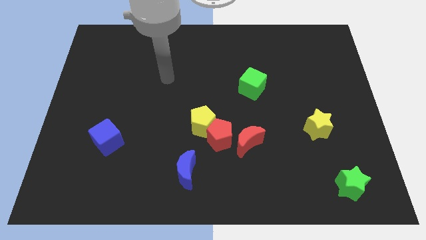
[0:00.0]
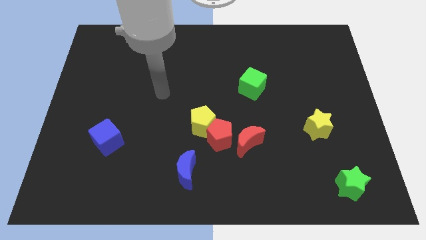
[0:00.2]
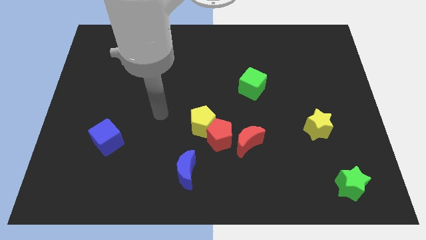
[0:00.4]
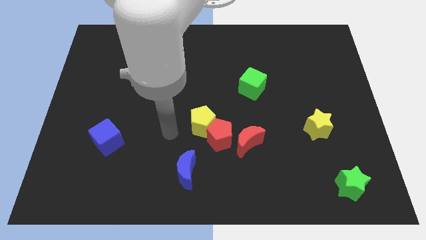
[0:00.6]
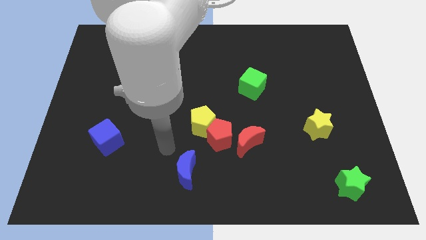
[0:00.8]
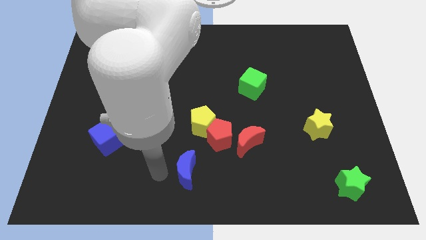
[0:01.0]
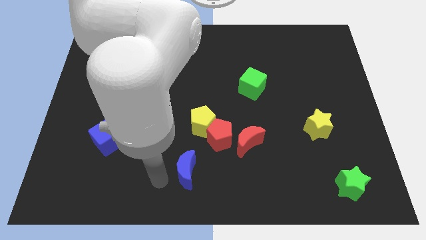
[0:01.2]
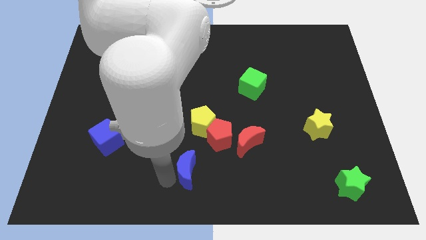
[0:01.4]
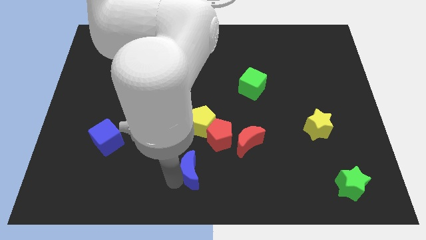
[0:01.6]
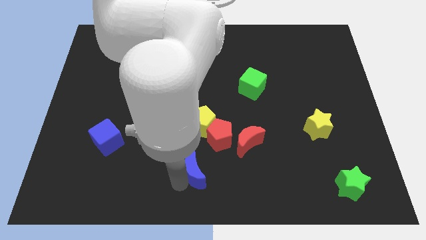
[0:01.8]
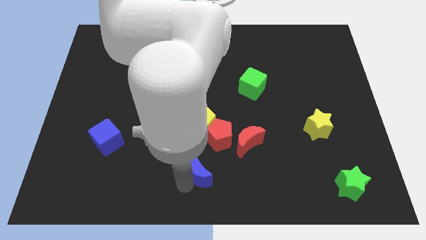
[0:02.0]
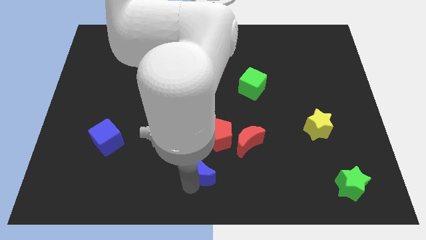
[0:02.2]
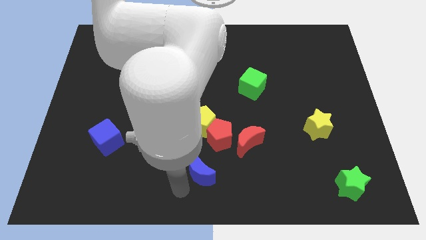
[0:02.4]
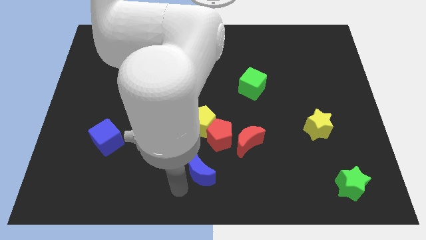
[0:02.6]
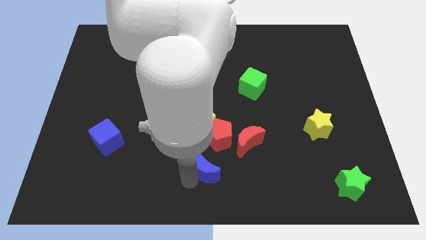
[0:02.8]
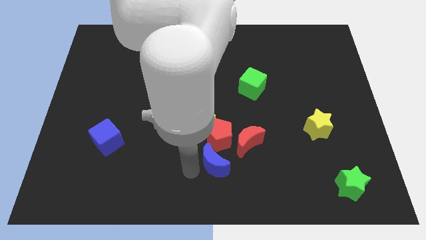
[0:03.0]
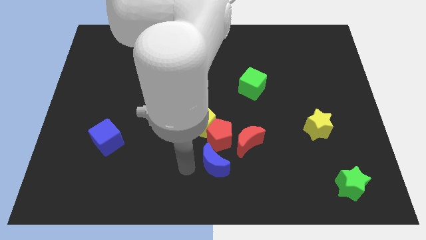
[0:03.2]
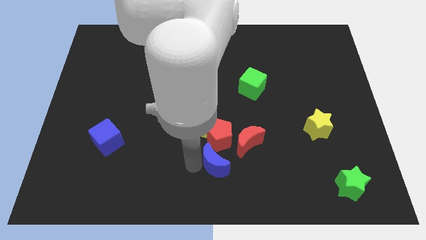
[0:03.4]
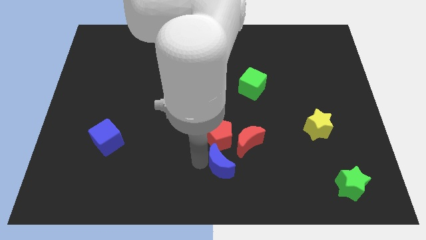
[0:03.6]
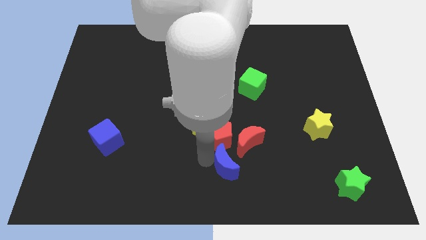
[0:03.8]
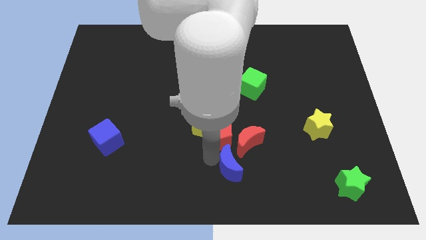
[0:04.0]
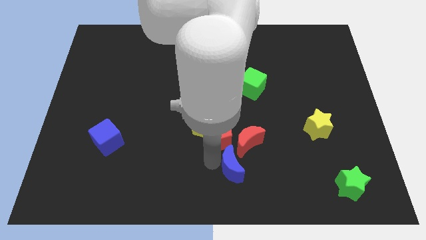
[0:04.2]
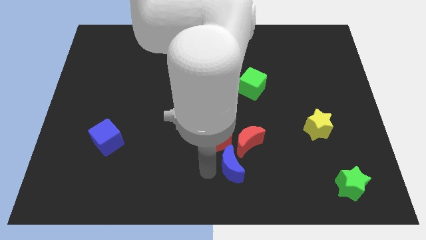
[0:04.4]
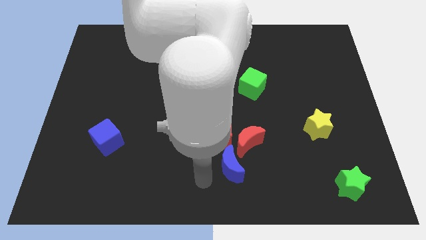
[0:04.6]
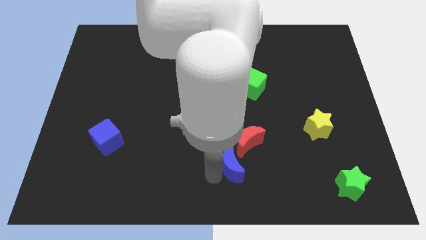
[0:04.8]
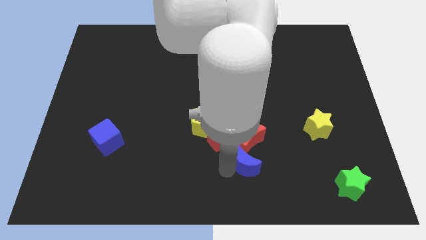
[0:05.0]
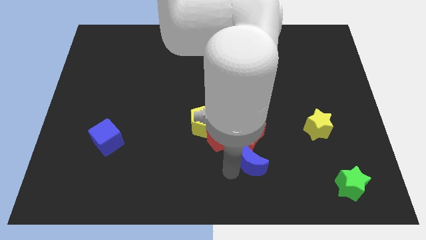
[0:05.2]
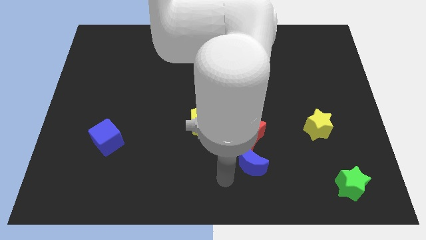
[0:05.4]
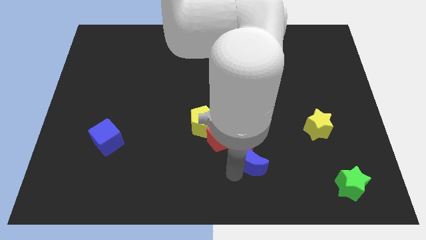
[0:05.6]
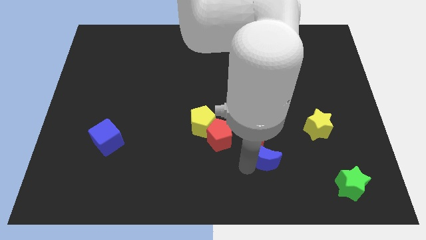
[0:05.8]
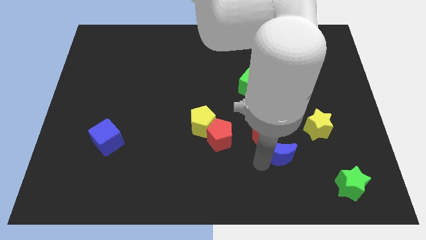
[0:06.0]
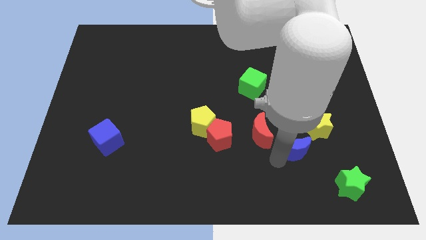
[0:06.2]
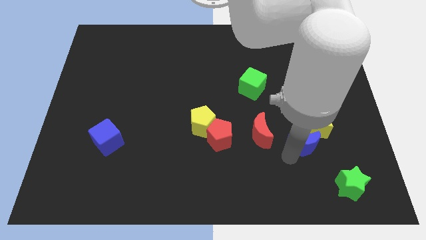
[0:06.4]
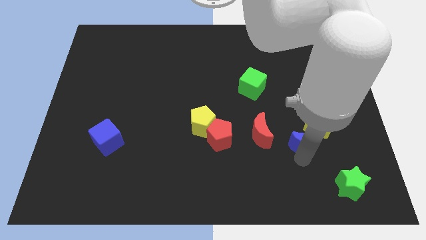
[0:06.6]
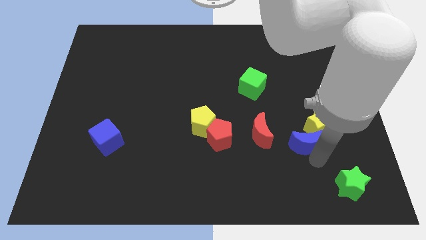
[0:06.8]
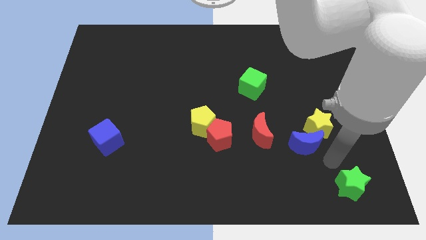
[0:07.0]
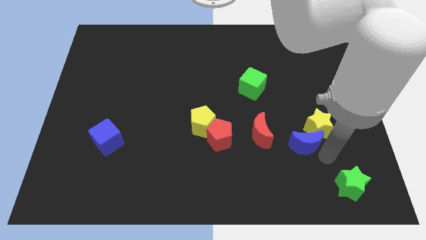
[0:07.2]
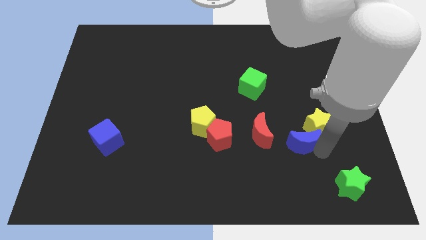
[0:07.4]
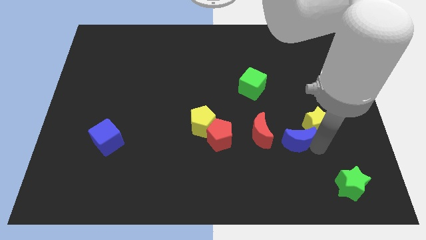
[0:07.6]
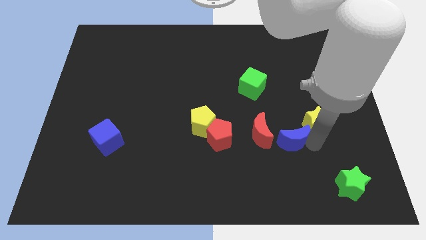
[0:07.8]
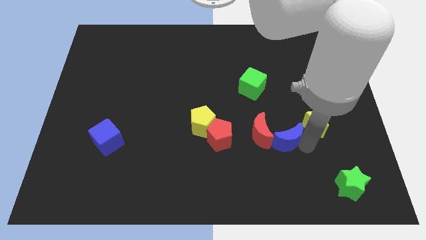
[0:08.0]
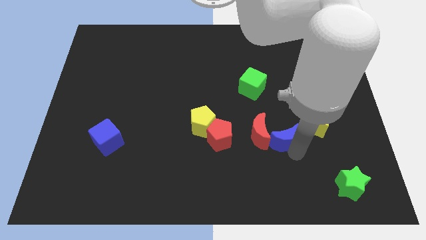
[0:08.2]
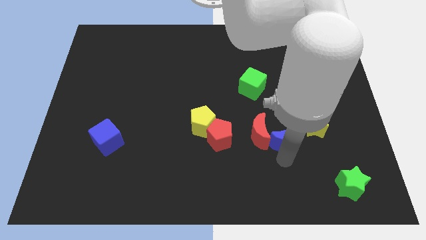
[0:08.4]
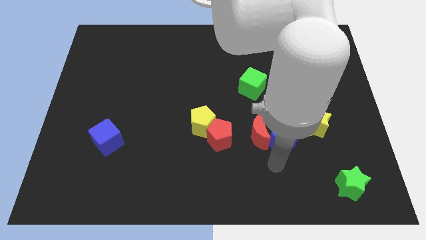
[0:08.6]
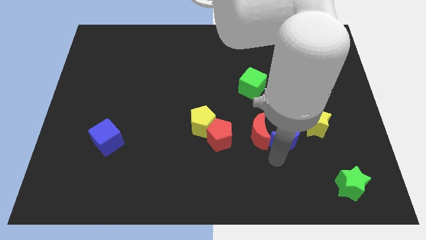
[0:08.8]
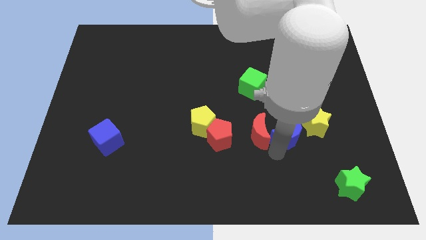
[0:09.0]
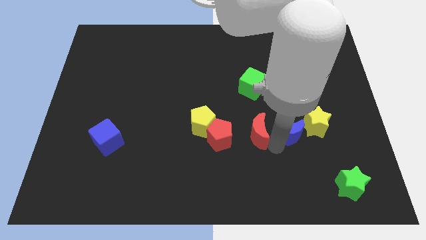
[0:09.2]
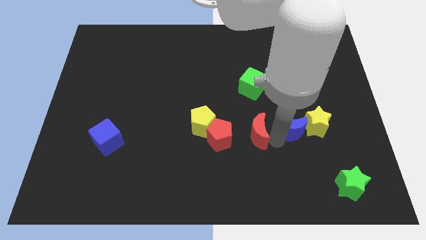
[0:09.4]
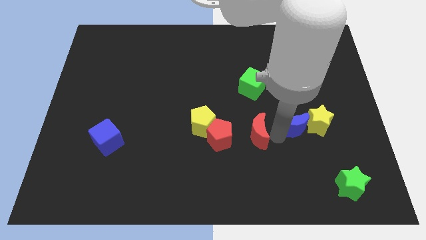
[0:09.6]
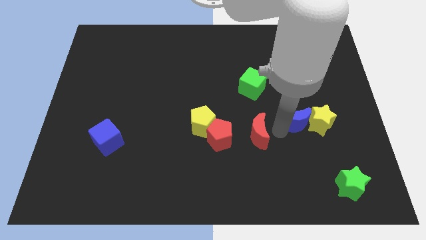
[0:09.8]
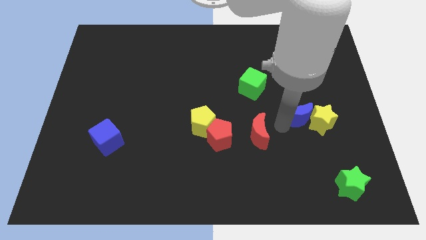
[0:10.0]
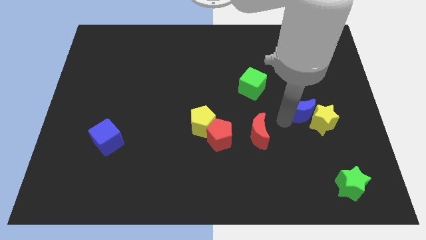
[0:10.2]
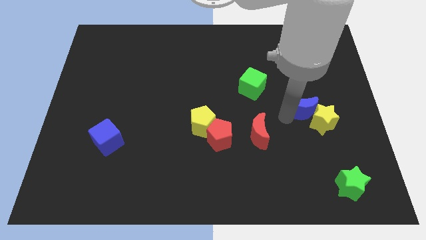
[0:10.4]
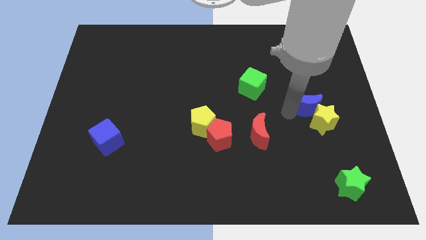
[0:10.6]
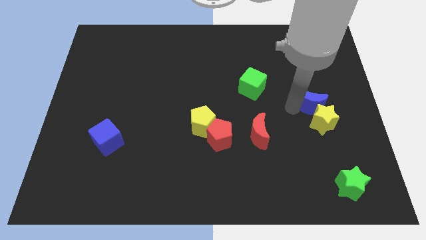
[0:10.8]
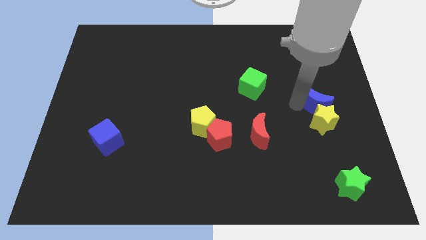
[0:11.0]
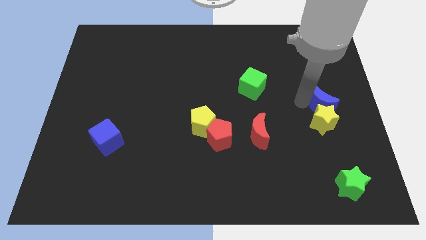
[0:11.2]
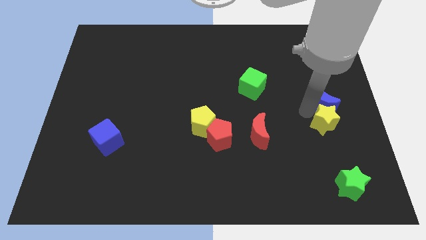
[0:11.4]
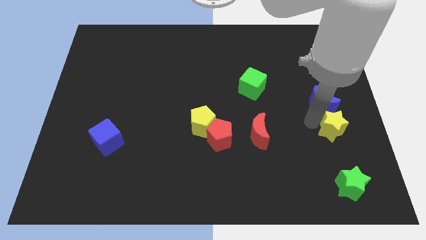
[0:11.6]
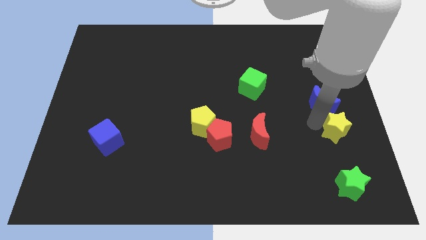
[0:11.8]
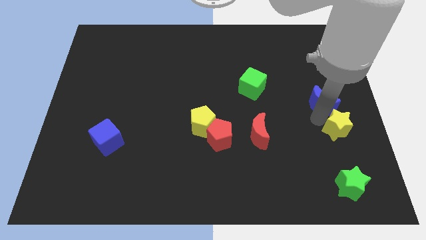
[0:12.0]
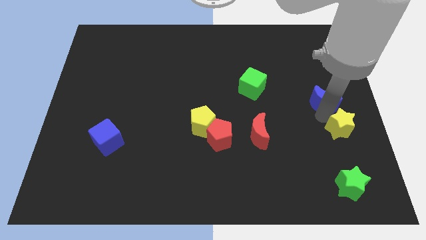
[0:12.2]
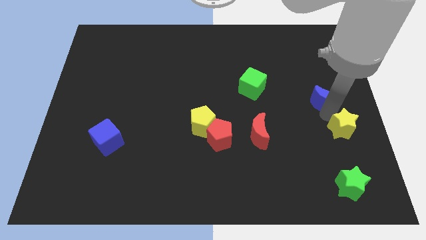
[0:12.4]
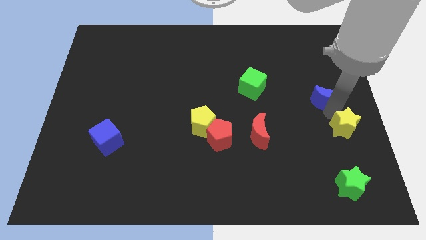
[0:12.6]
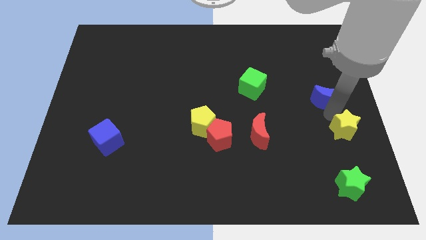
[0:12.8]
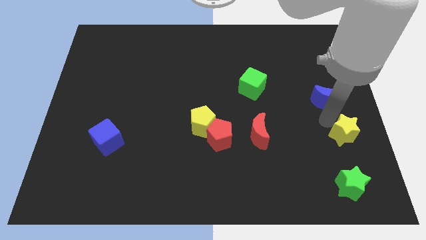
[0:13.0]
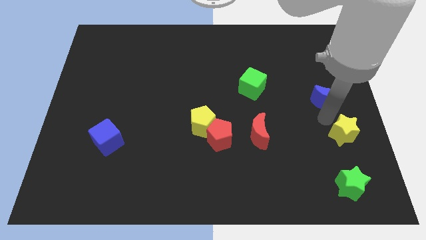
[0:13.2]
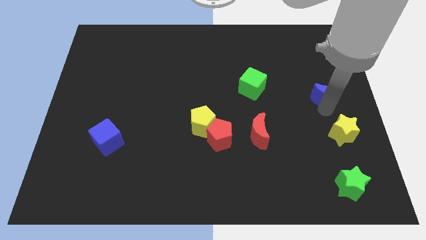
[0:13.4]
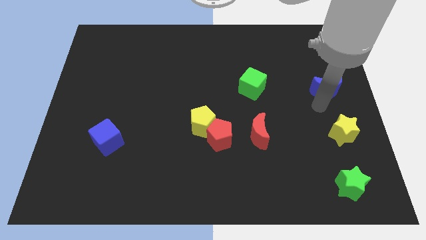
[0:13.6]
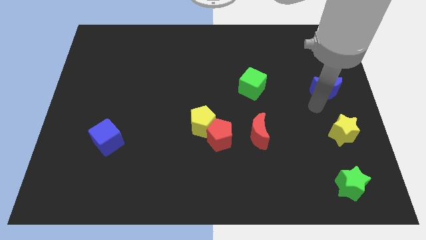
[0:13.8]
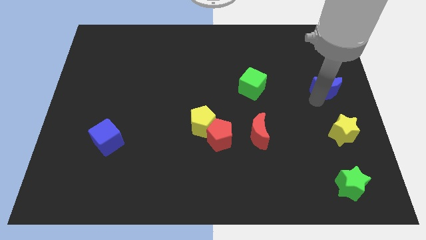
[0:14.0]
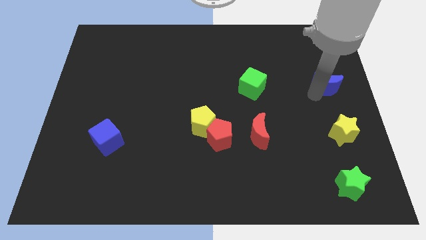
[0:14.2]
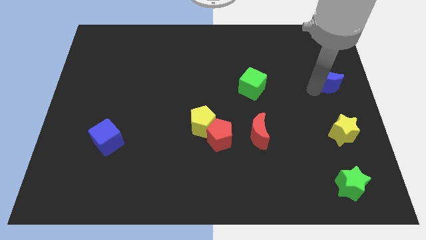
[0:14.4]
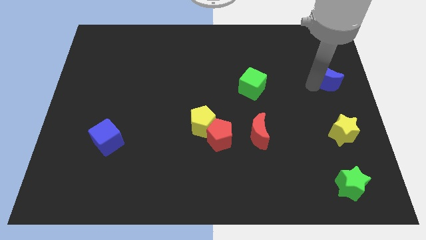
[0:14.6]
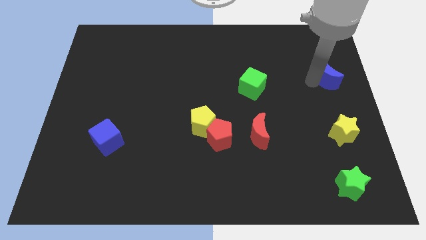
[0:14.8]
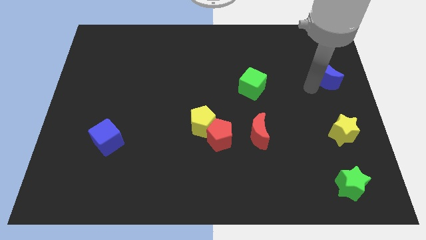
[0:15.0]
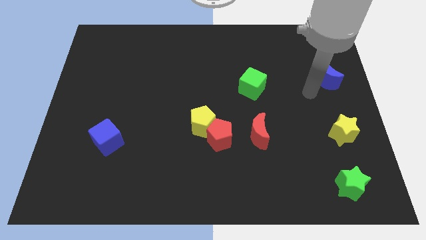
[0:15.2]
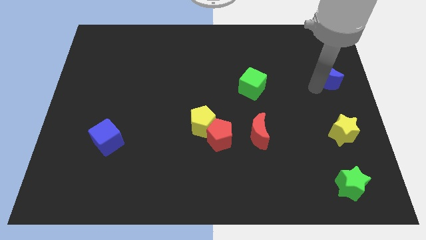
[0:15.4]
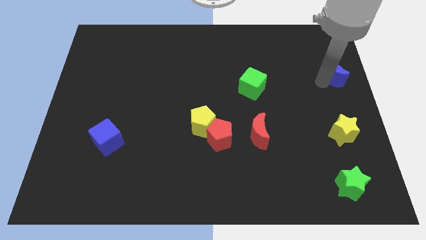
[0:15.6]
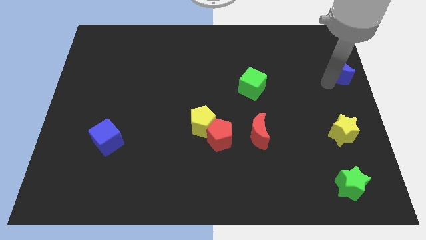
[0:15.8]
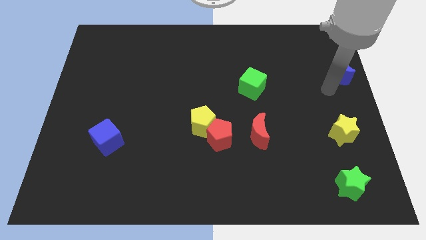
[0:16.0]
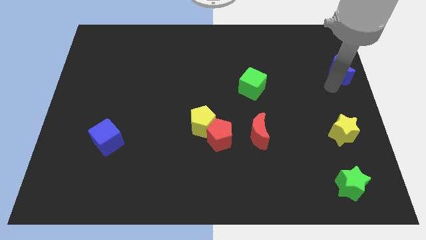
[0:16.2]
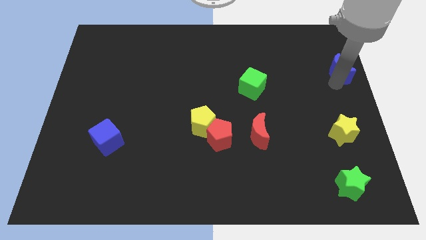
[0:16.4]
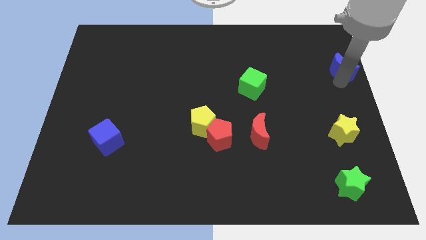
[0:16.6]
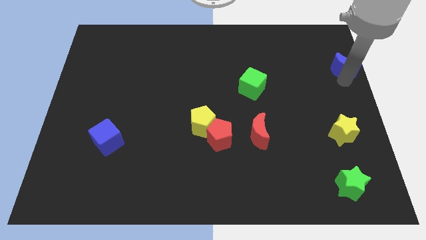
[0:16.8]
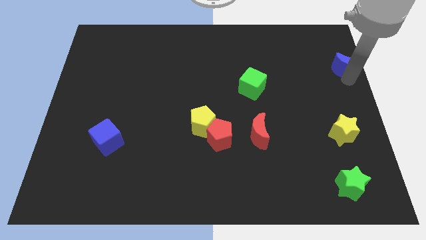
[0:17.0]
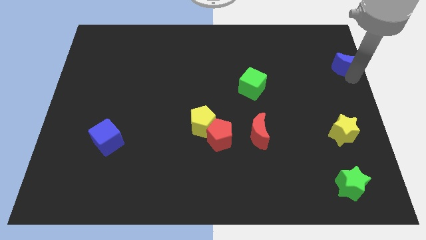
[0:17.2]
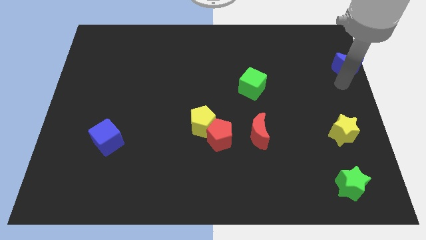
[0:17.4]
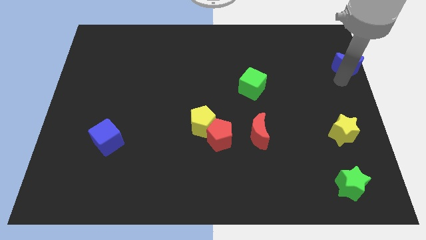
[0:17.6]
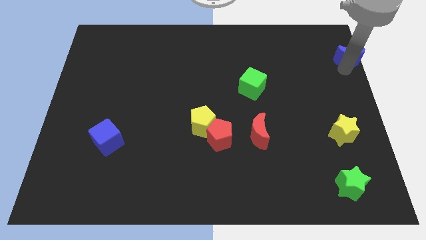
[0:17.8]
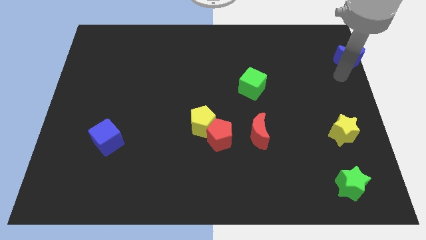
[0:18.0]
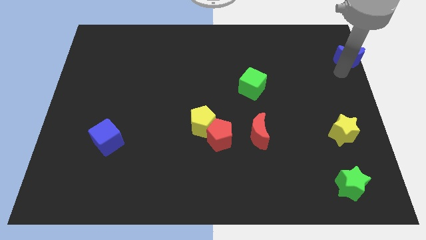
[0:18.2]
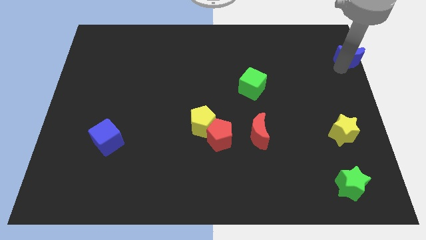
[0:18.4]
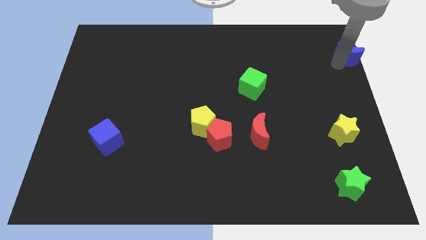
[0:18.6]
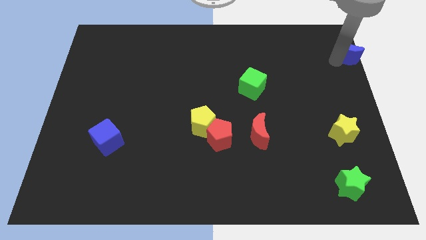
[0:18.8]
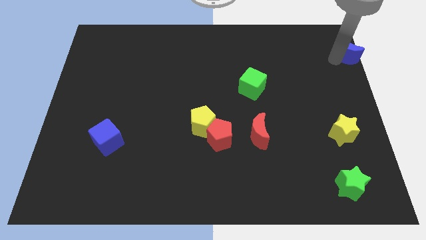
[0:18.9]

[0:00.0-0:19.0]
move the blue moon to the top right corner
